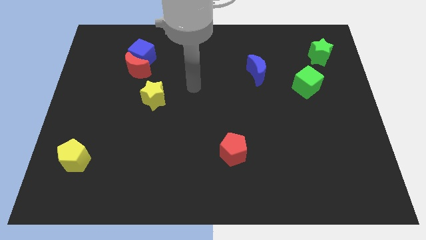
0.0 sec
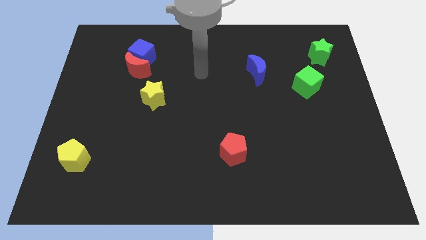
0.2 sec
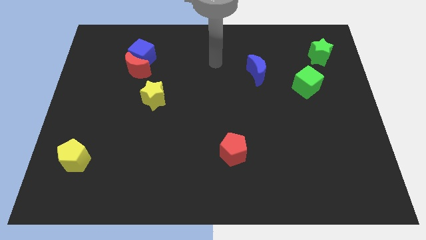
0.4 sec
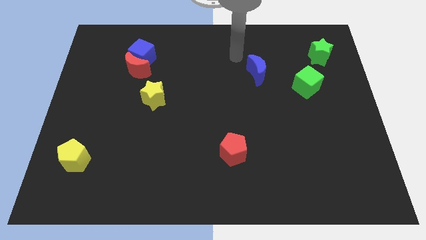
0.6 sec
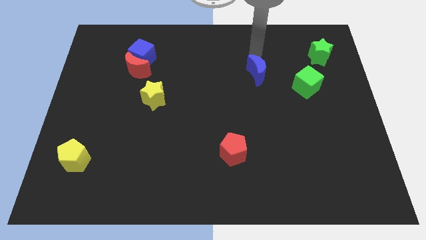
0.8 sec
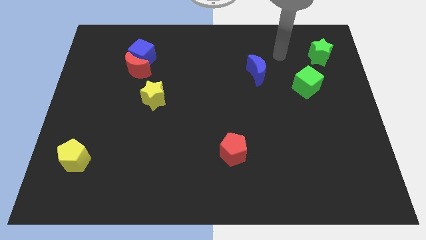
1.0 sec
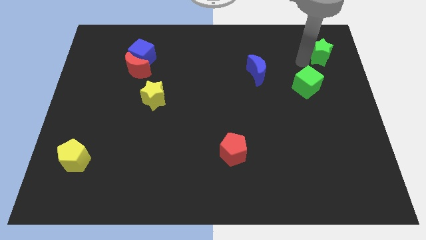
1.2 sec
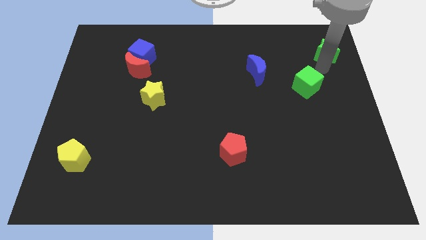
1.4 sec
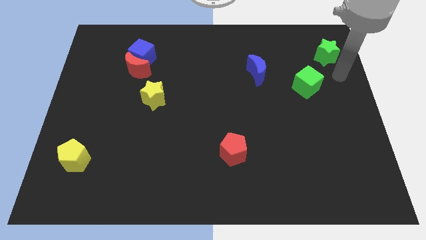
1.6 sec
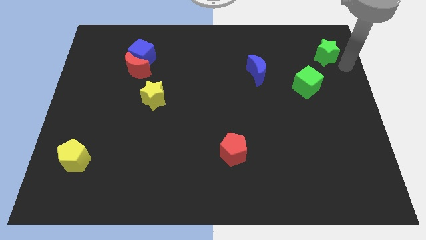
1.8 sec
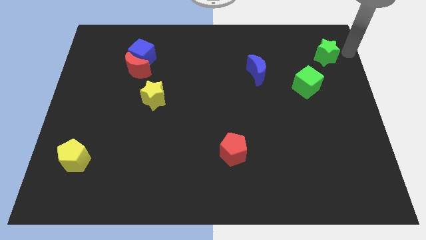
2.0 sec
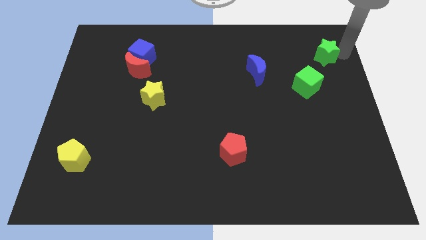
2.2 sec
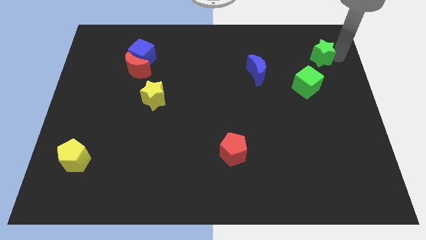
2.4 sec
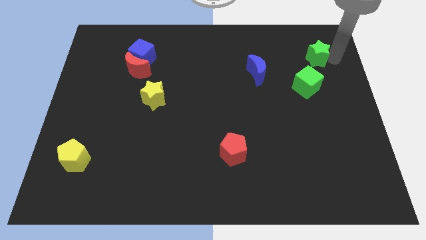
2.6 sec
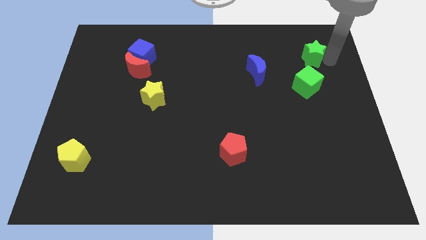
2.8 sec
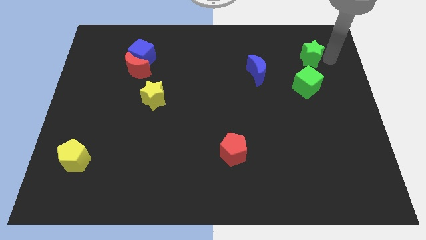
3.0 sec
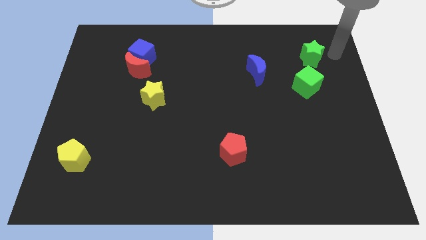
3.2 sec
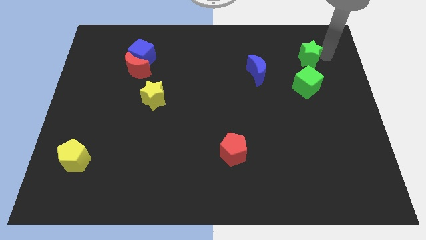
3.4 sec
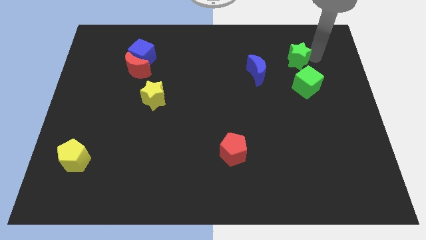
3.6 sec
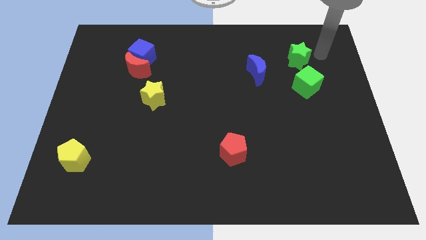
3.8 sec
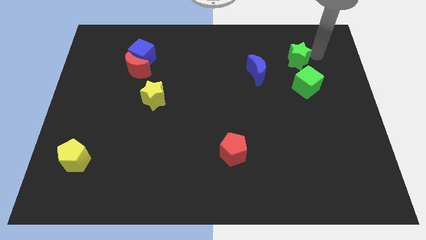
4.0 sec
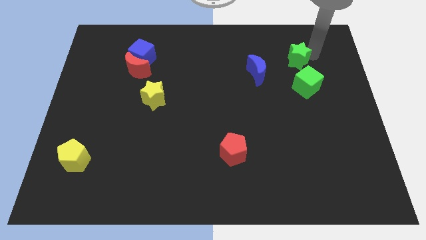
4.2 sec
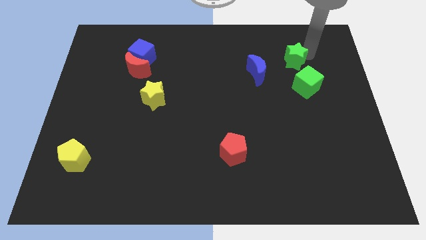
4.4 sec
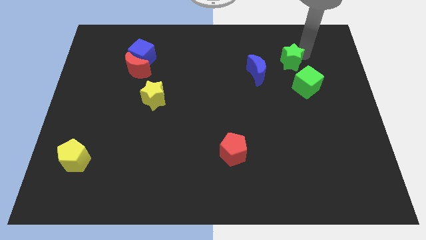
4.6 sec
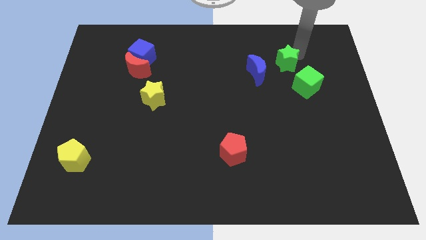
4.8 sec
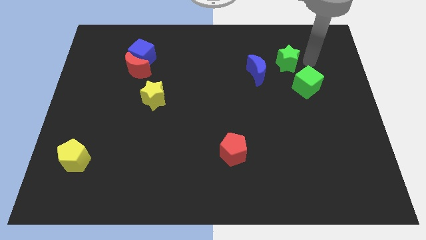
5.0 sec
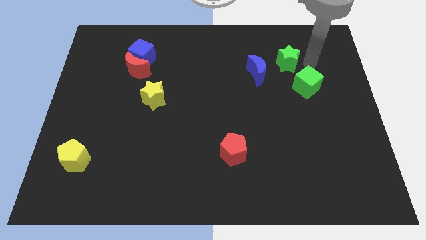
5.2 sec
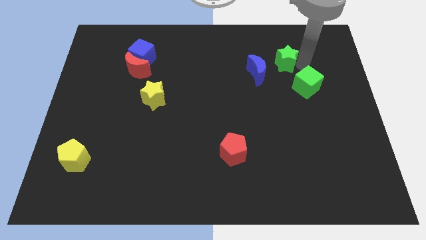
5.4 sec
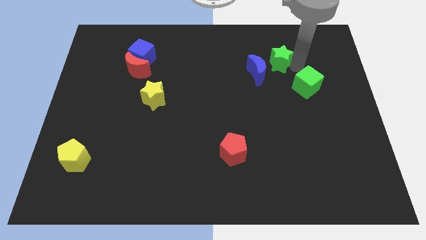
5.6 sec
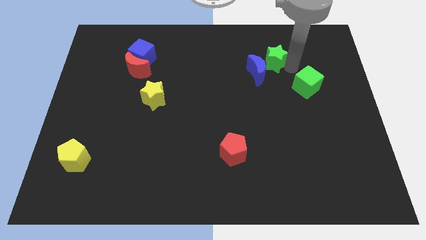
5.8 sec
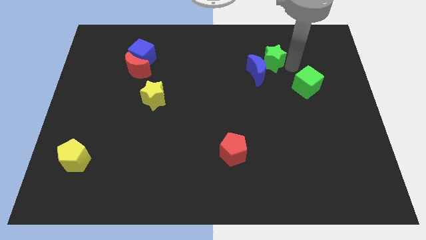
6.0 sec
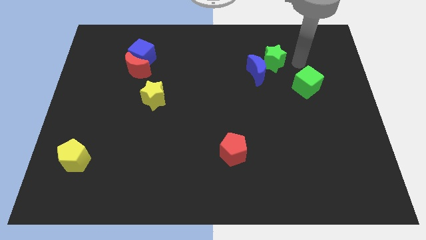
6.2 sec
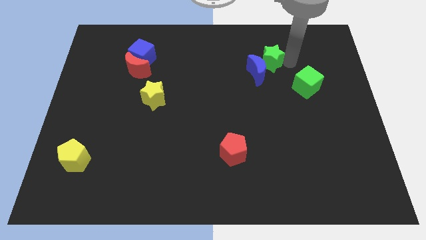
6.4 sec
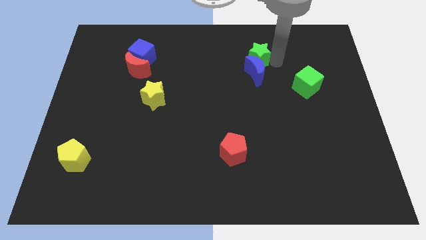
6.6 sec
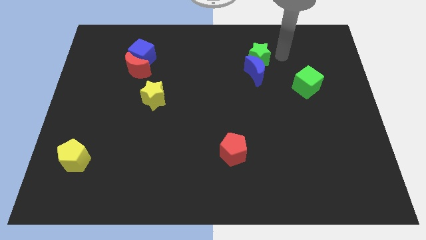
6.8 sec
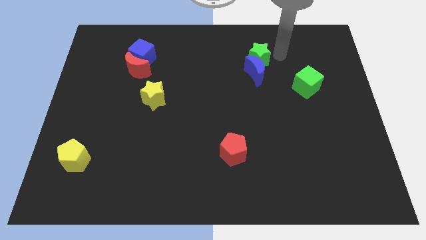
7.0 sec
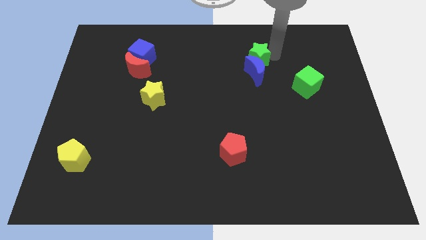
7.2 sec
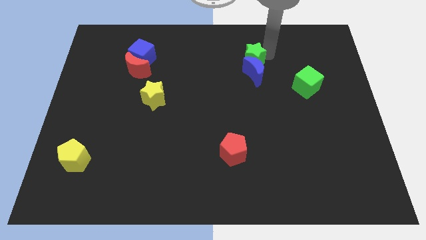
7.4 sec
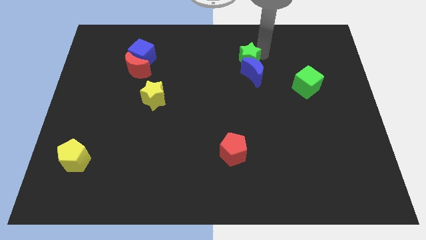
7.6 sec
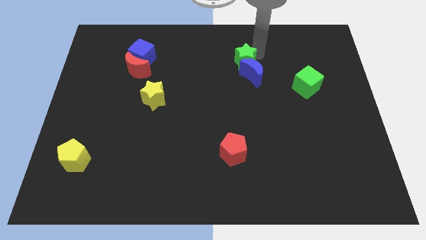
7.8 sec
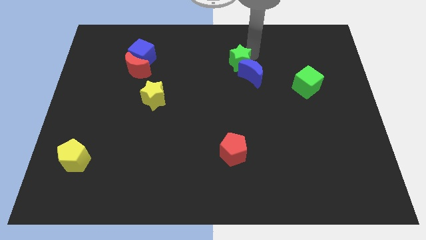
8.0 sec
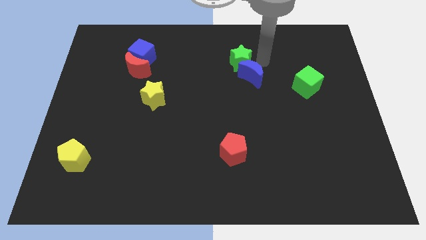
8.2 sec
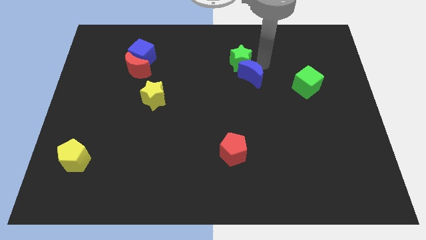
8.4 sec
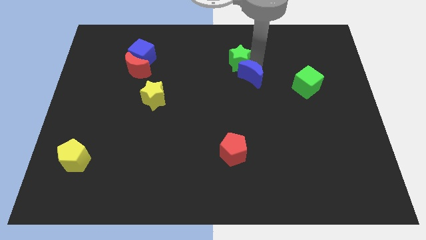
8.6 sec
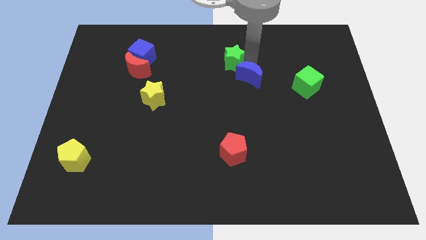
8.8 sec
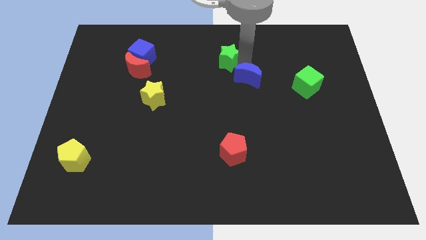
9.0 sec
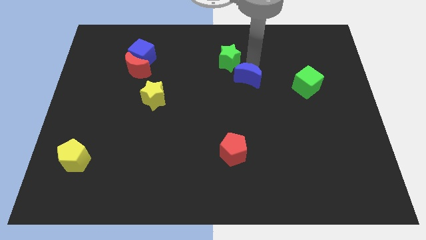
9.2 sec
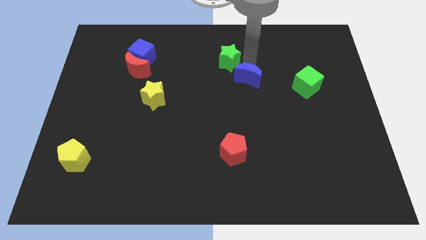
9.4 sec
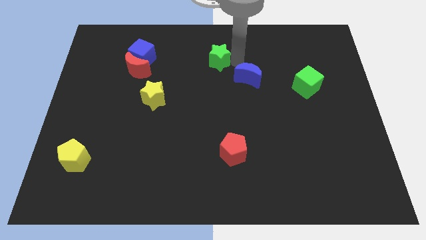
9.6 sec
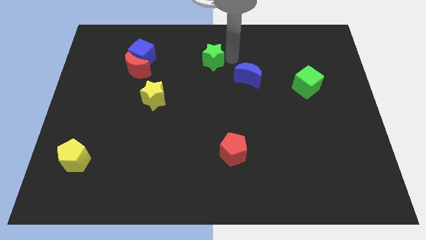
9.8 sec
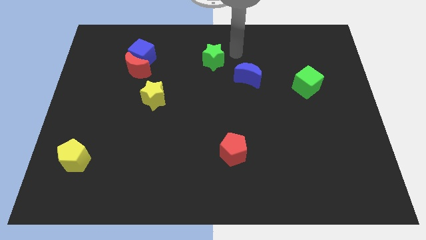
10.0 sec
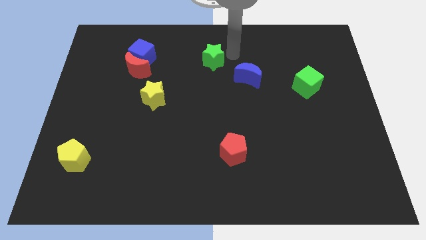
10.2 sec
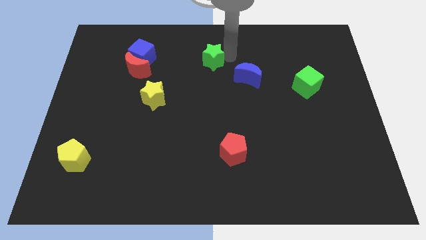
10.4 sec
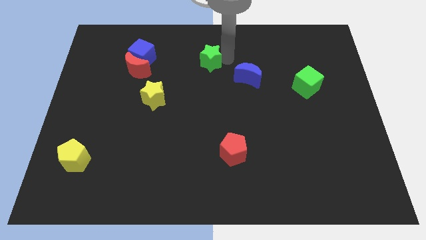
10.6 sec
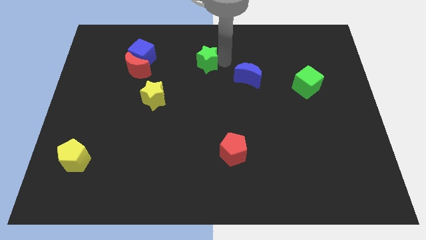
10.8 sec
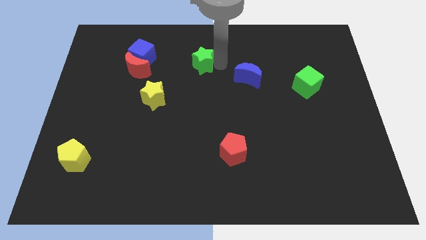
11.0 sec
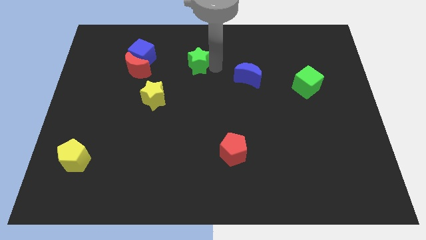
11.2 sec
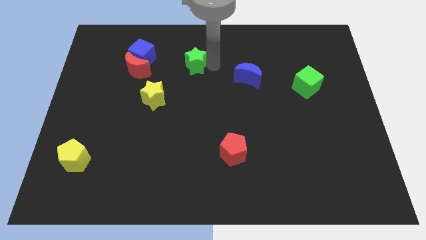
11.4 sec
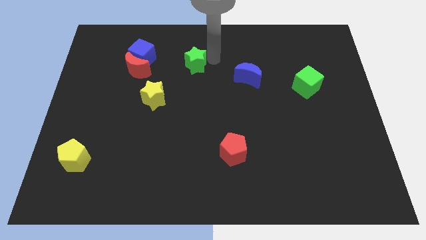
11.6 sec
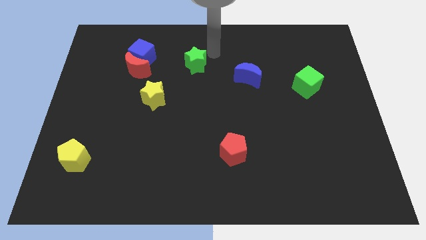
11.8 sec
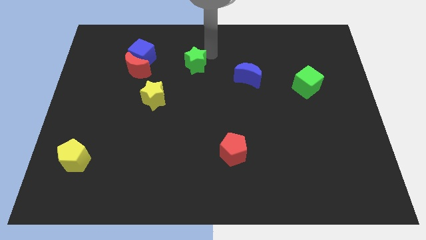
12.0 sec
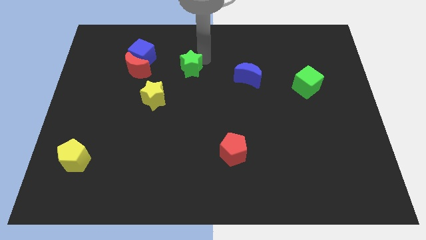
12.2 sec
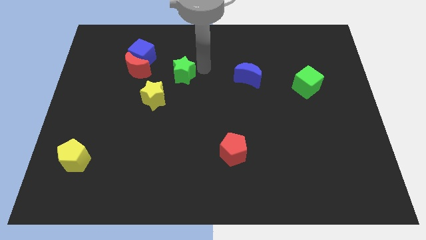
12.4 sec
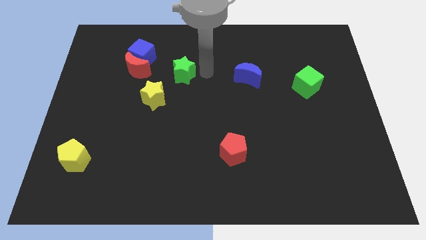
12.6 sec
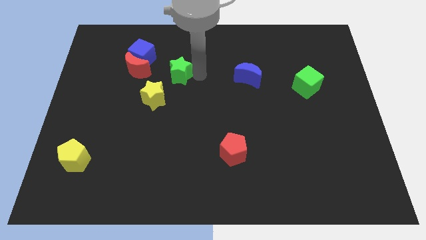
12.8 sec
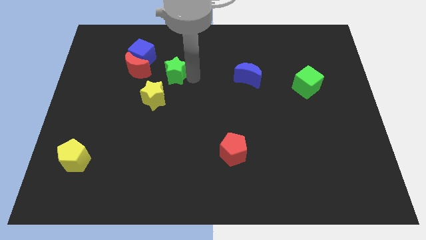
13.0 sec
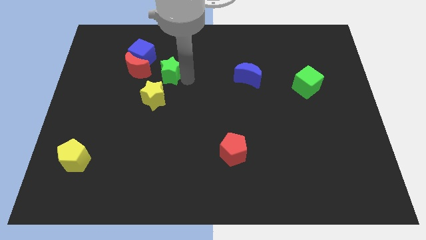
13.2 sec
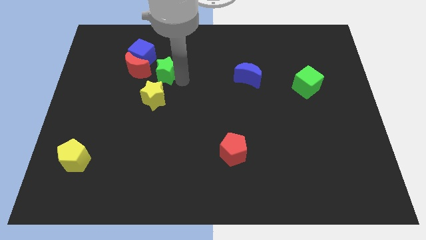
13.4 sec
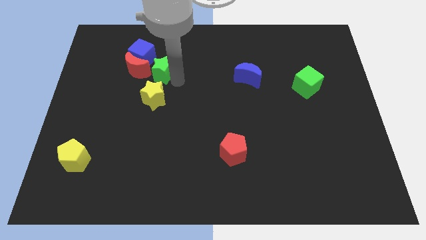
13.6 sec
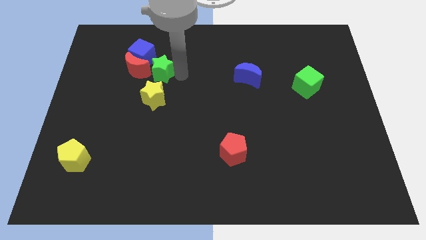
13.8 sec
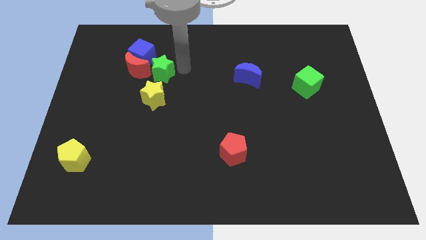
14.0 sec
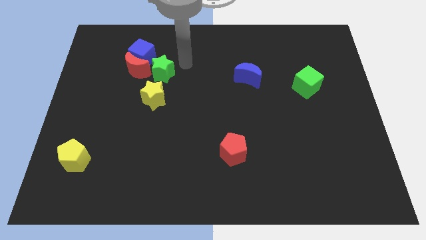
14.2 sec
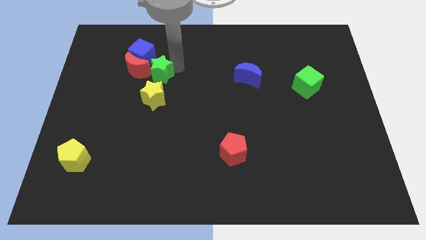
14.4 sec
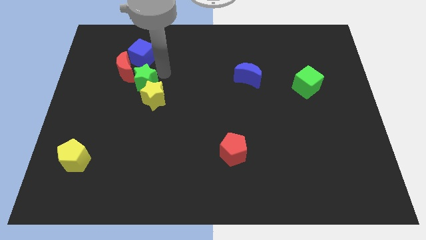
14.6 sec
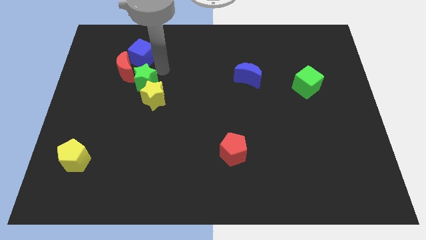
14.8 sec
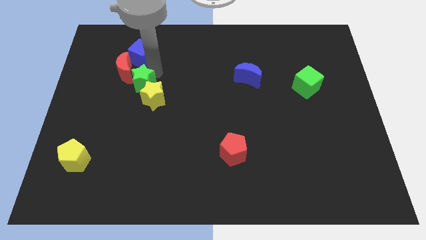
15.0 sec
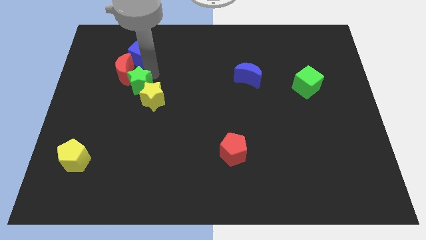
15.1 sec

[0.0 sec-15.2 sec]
push the green star below the red moon
